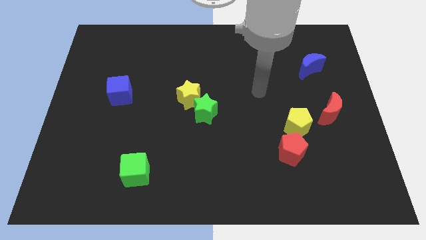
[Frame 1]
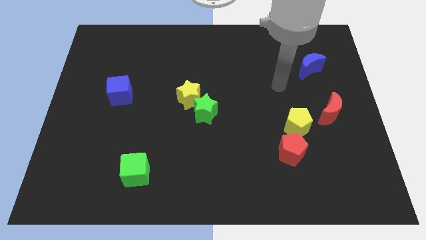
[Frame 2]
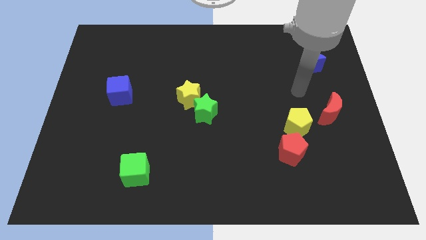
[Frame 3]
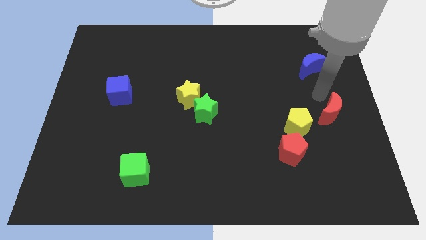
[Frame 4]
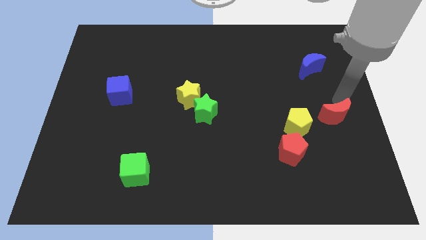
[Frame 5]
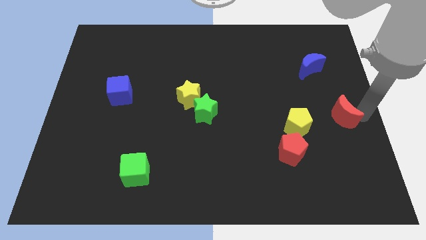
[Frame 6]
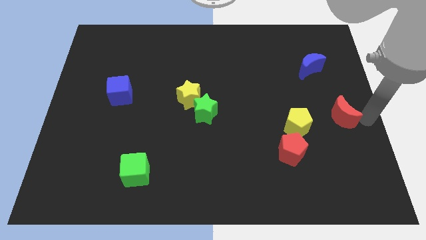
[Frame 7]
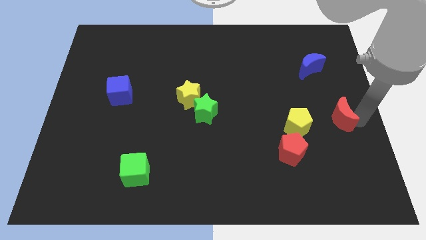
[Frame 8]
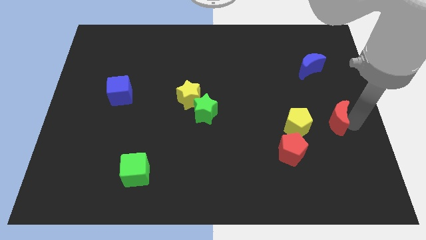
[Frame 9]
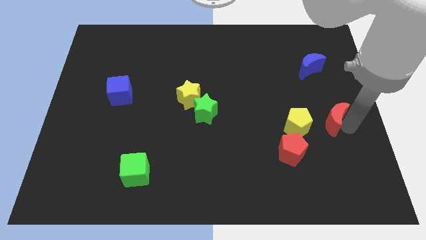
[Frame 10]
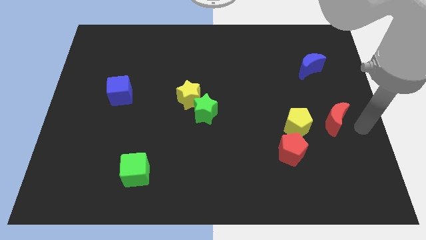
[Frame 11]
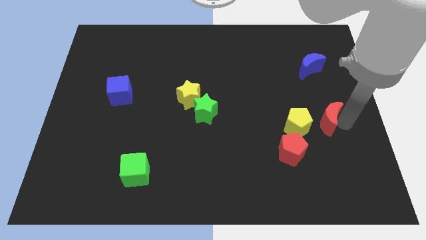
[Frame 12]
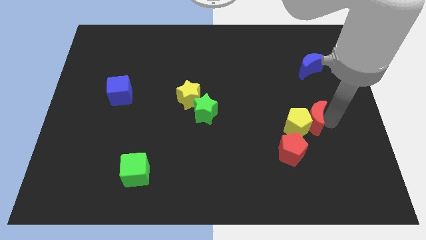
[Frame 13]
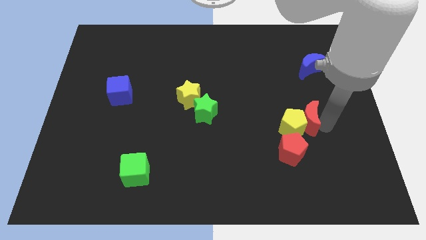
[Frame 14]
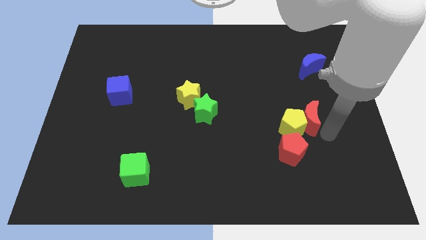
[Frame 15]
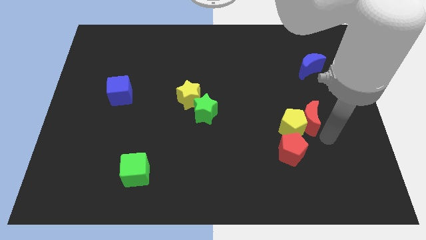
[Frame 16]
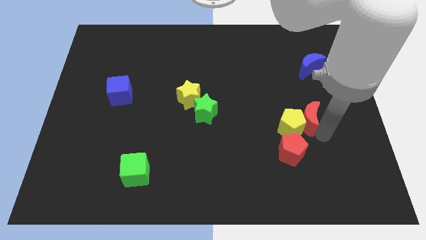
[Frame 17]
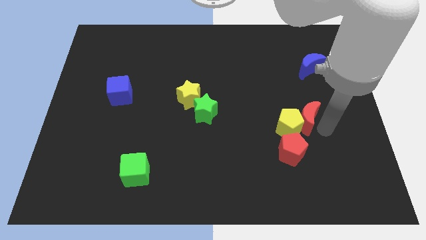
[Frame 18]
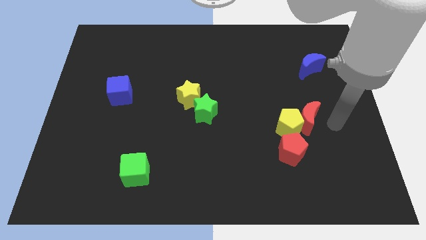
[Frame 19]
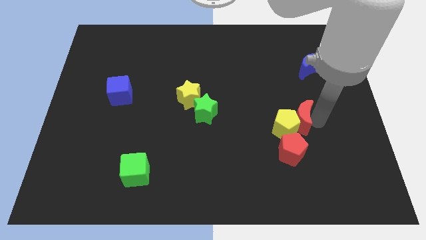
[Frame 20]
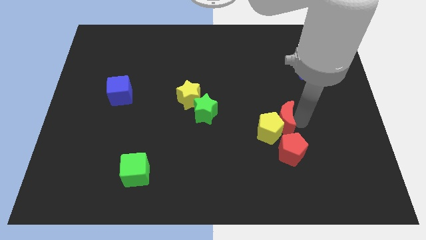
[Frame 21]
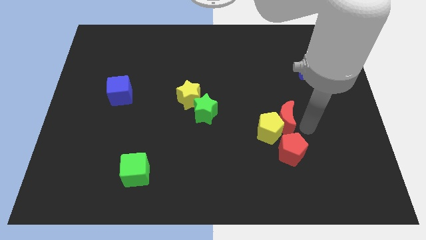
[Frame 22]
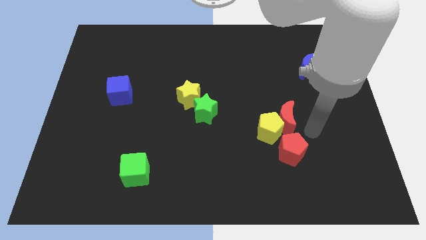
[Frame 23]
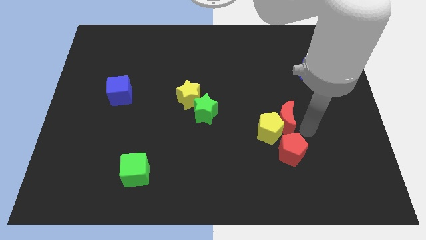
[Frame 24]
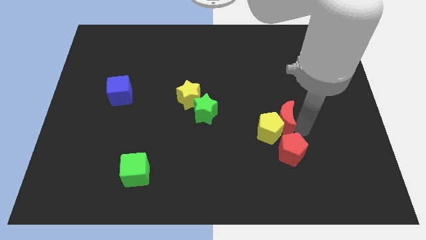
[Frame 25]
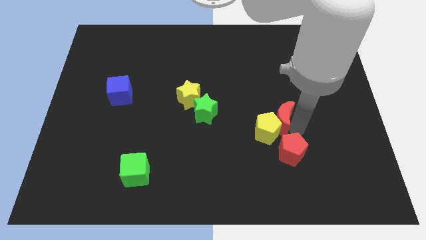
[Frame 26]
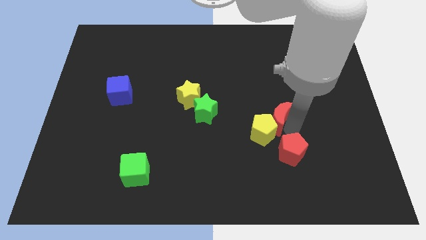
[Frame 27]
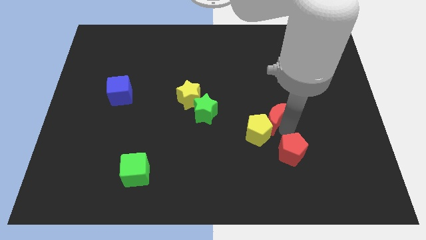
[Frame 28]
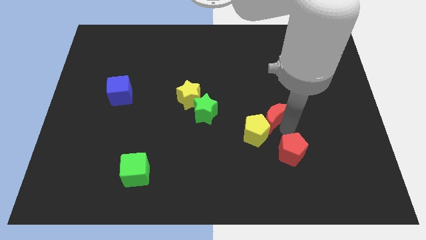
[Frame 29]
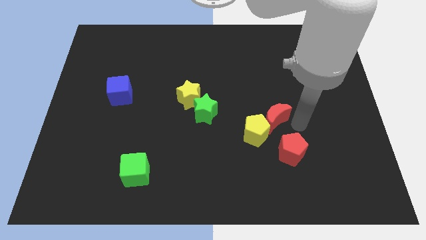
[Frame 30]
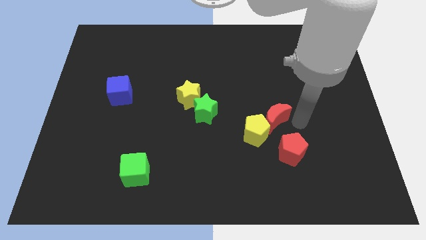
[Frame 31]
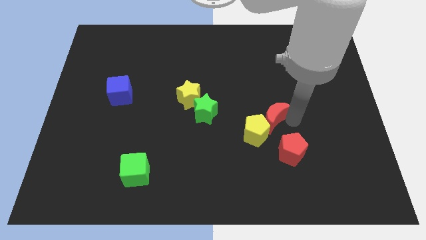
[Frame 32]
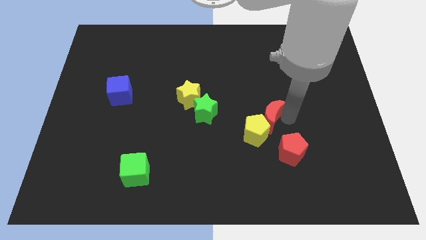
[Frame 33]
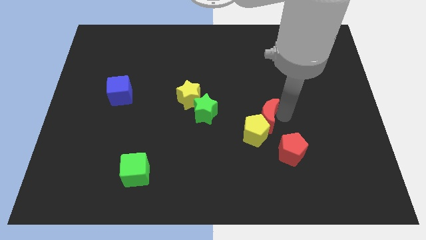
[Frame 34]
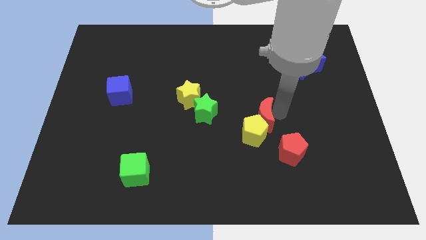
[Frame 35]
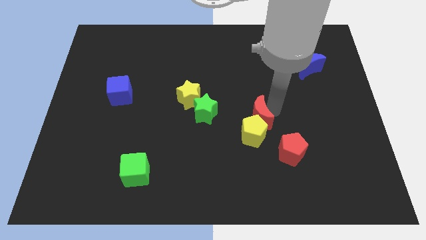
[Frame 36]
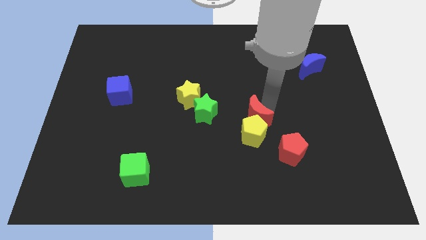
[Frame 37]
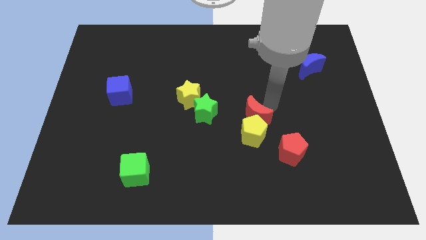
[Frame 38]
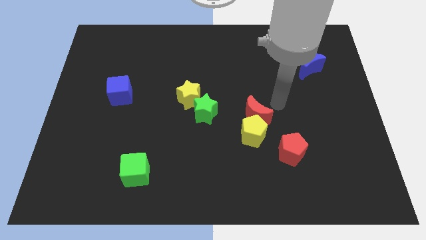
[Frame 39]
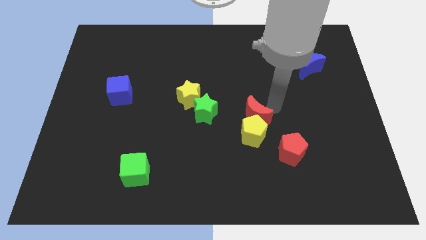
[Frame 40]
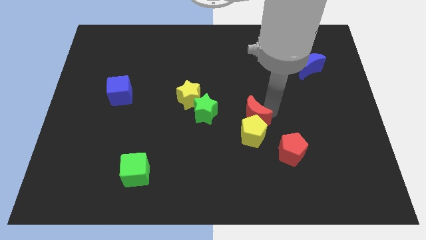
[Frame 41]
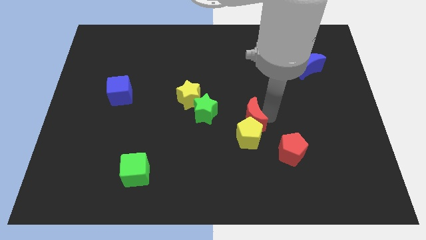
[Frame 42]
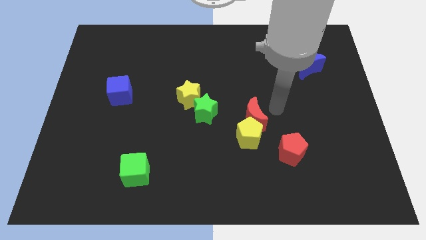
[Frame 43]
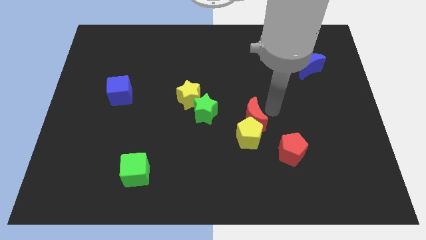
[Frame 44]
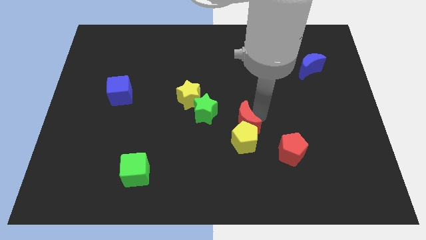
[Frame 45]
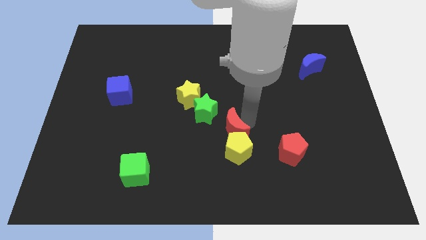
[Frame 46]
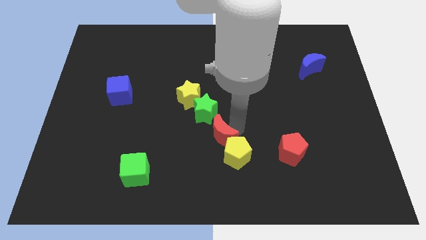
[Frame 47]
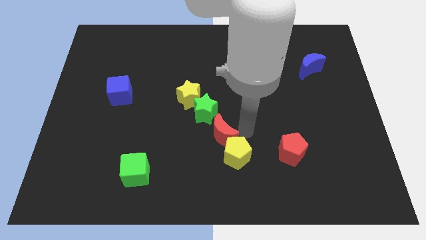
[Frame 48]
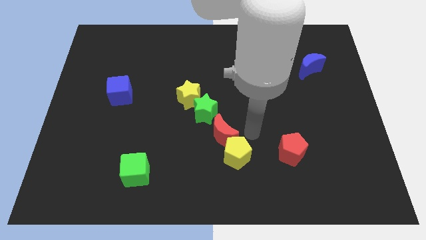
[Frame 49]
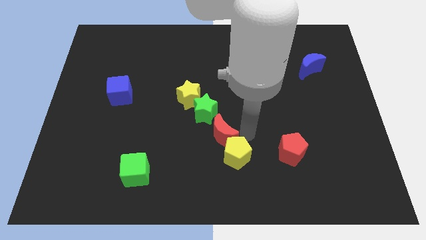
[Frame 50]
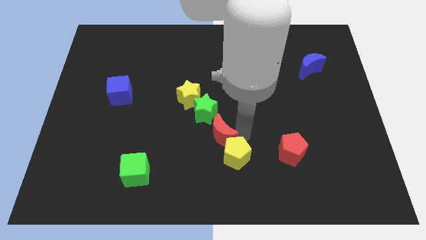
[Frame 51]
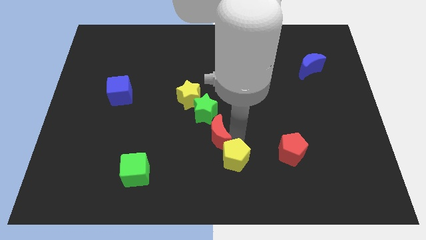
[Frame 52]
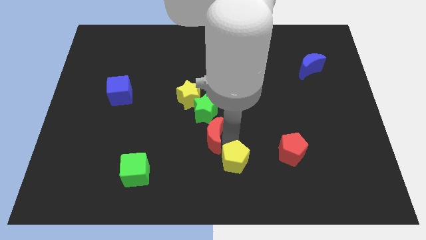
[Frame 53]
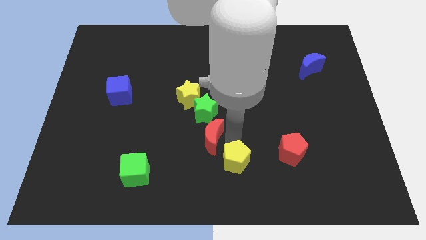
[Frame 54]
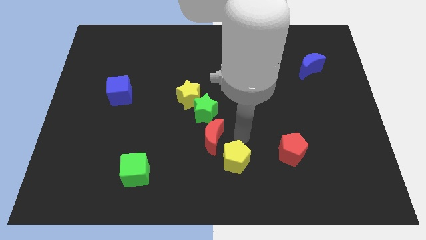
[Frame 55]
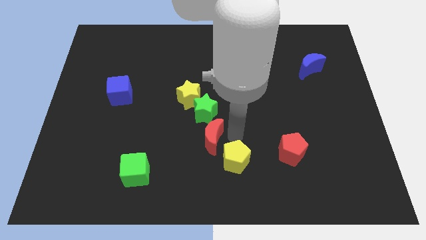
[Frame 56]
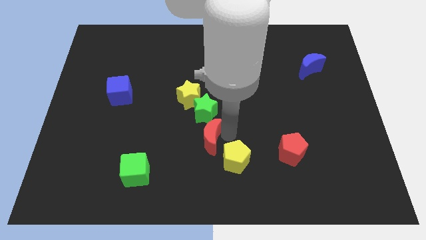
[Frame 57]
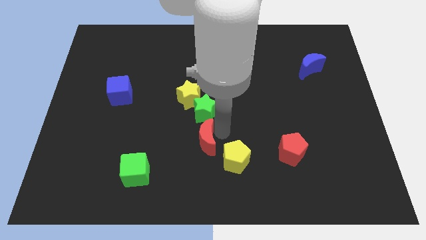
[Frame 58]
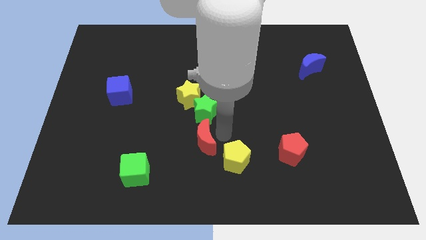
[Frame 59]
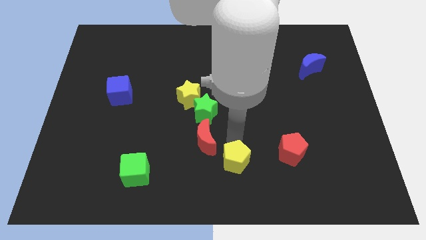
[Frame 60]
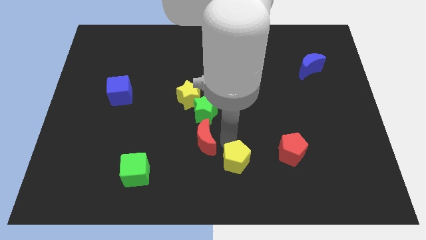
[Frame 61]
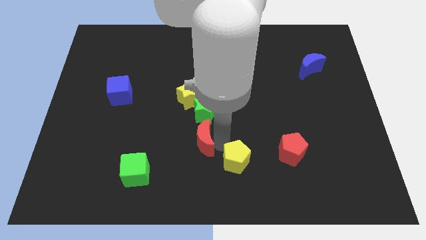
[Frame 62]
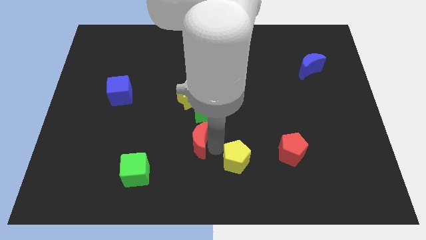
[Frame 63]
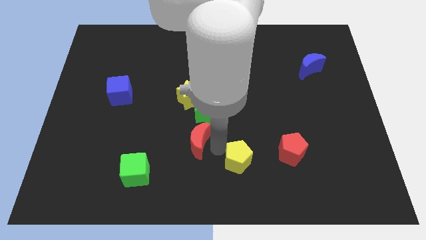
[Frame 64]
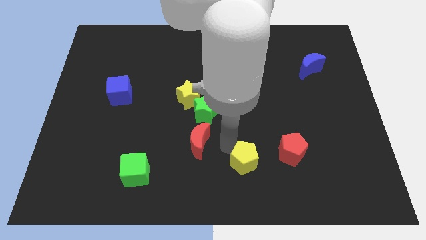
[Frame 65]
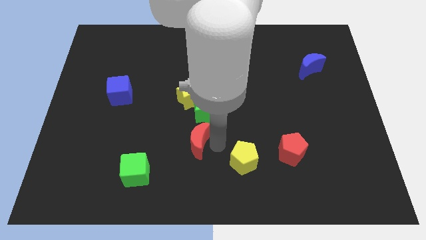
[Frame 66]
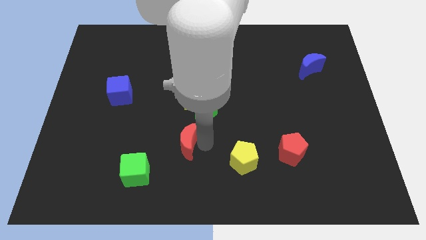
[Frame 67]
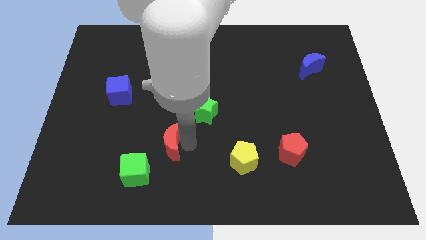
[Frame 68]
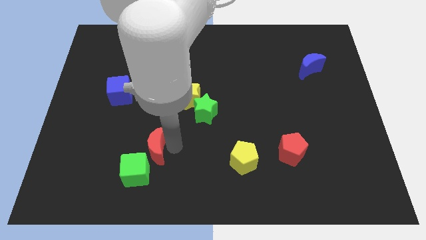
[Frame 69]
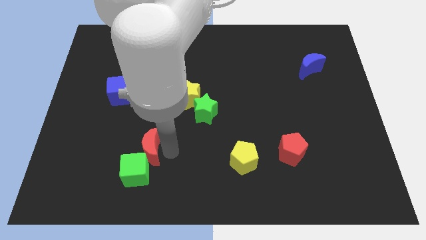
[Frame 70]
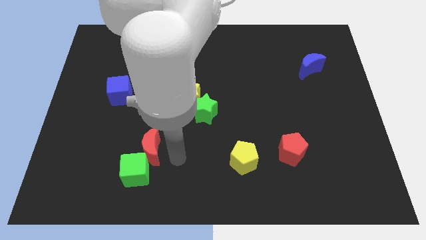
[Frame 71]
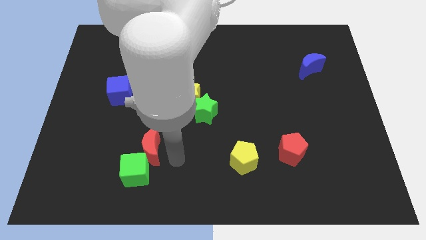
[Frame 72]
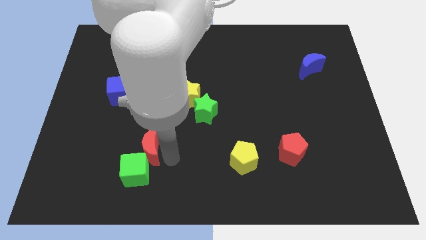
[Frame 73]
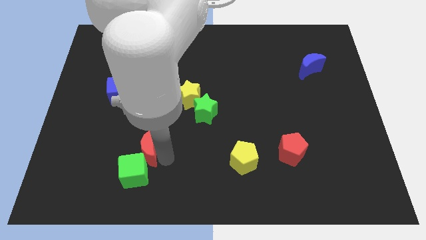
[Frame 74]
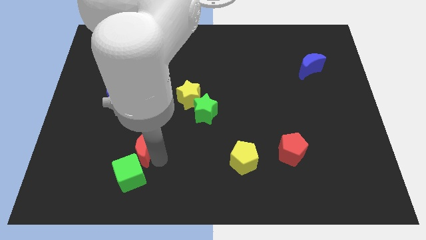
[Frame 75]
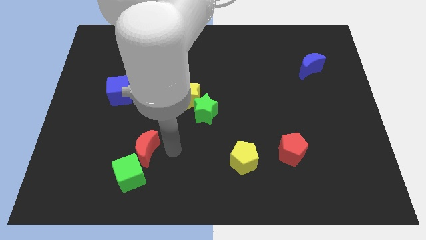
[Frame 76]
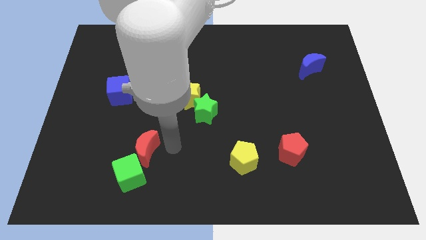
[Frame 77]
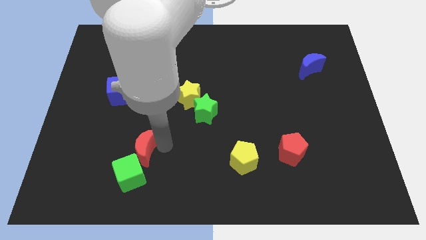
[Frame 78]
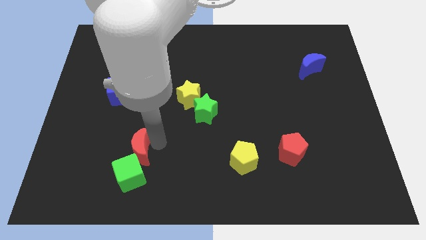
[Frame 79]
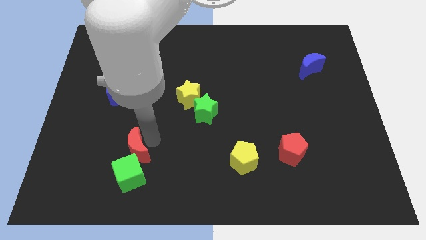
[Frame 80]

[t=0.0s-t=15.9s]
push the red moon to the top left side of the green cube
